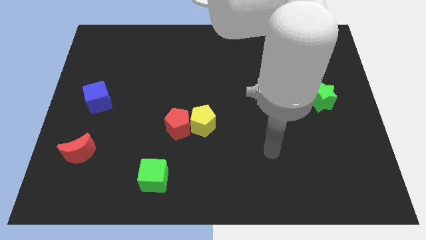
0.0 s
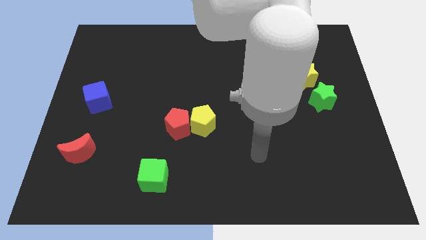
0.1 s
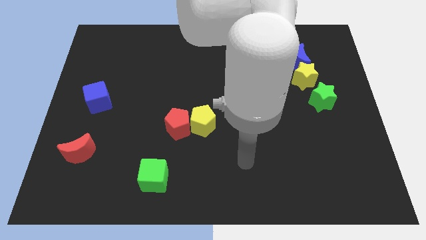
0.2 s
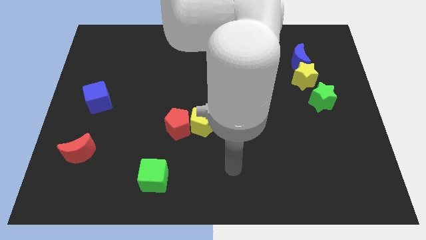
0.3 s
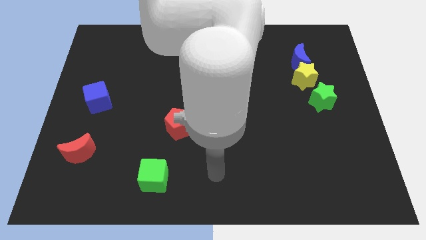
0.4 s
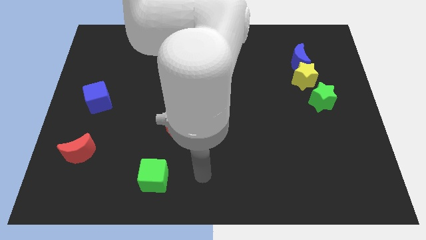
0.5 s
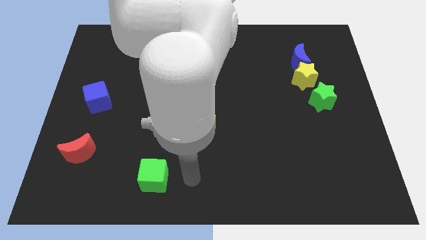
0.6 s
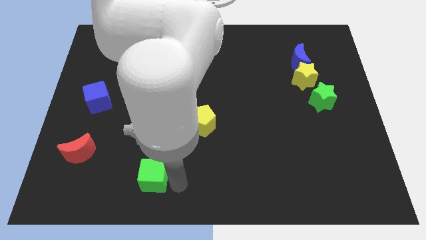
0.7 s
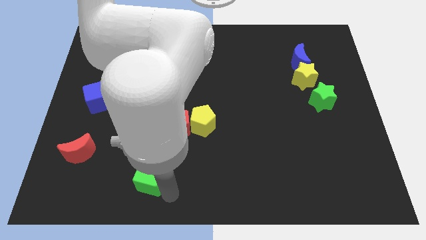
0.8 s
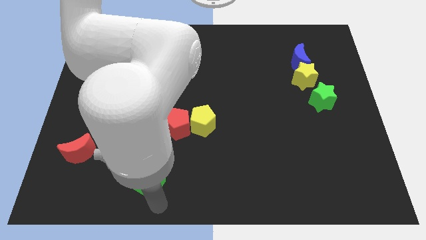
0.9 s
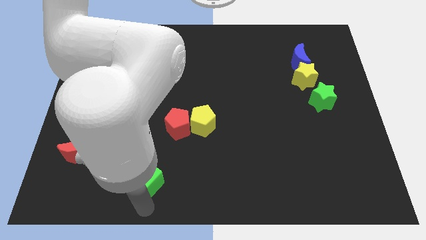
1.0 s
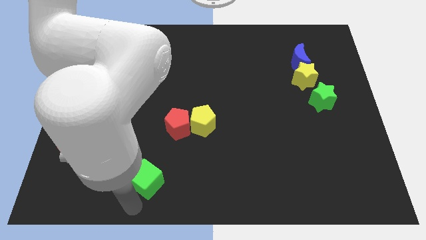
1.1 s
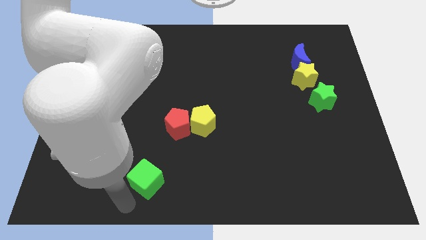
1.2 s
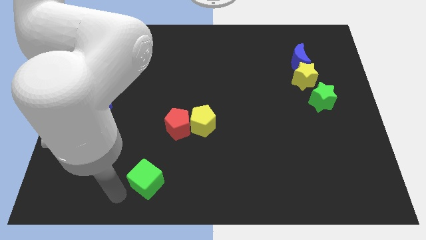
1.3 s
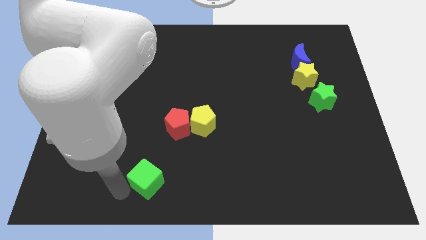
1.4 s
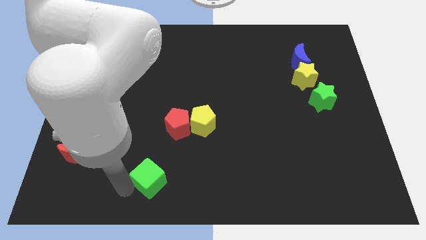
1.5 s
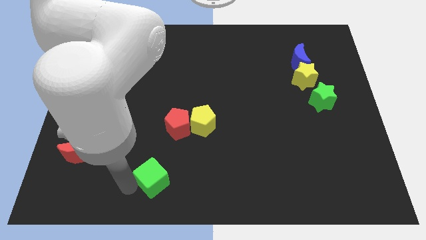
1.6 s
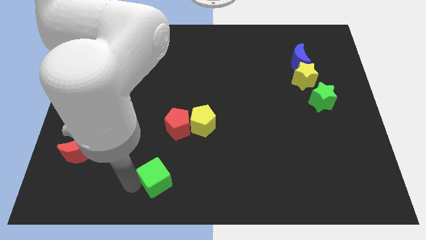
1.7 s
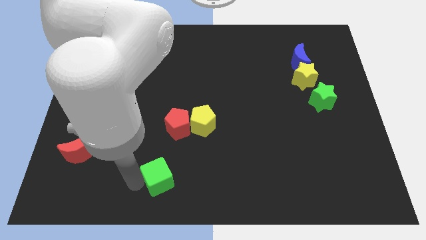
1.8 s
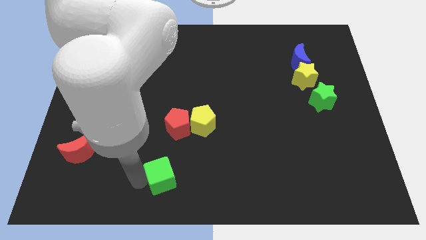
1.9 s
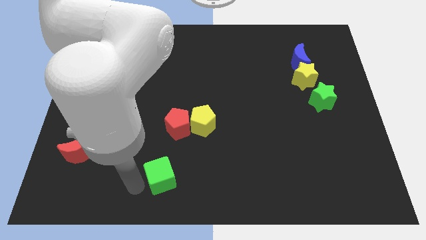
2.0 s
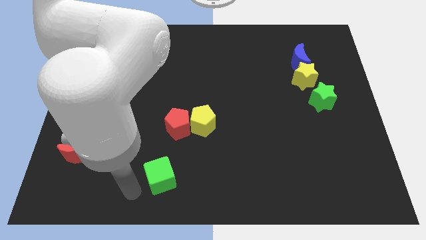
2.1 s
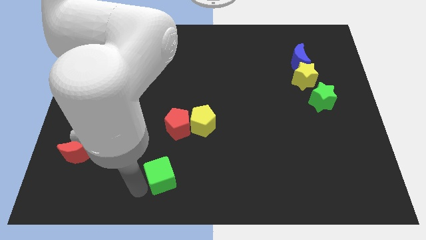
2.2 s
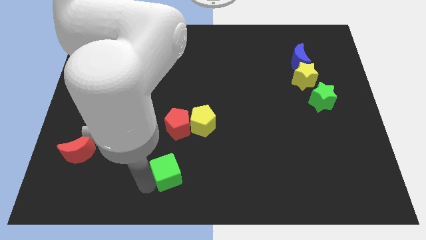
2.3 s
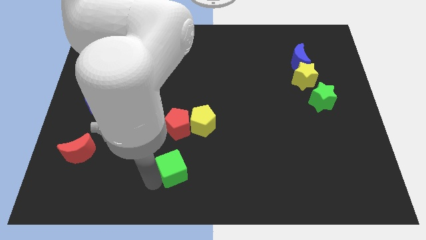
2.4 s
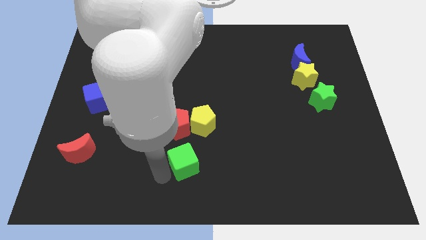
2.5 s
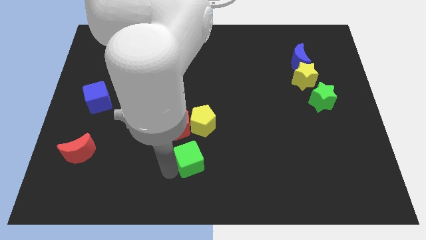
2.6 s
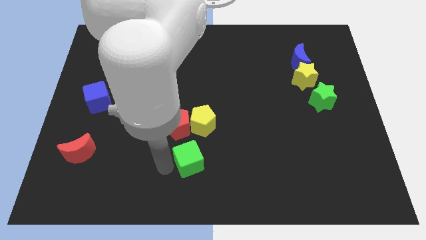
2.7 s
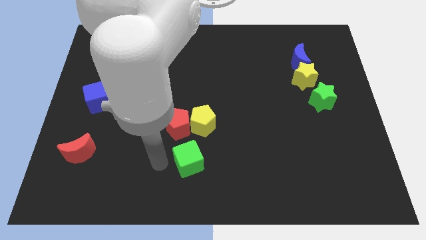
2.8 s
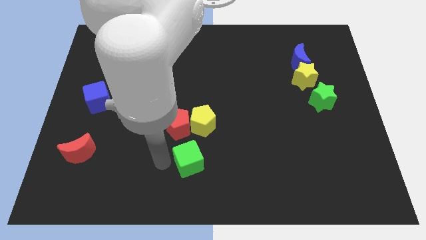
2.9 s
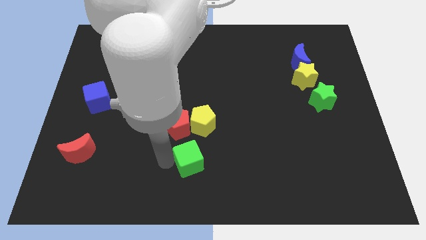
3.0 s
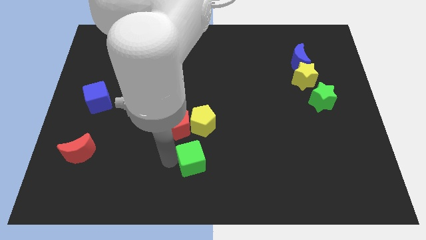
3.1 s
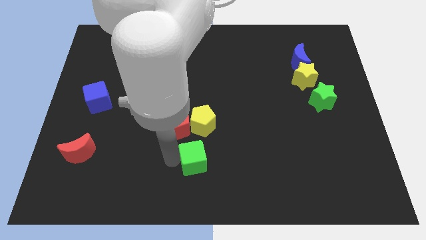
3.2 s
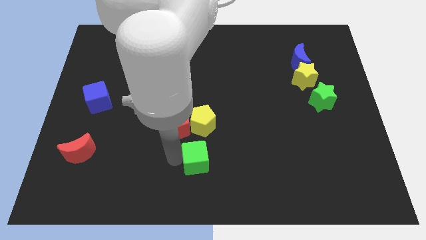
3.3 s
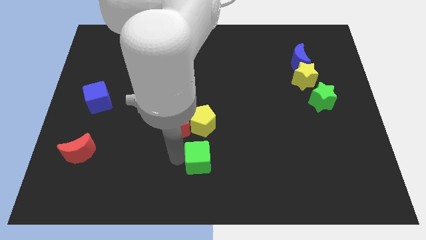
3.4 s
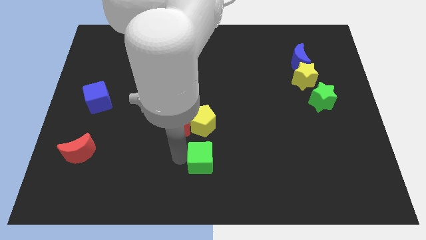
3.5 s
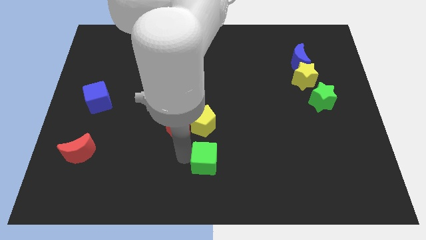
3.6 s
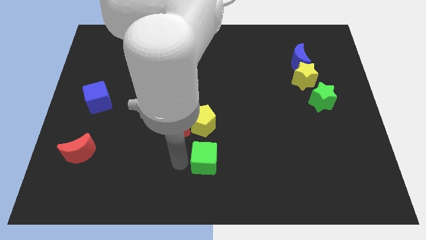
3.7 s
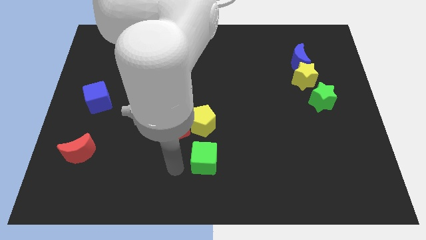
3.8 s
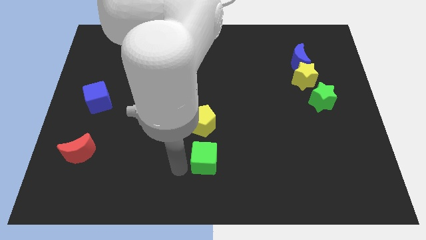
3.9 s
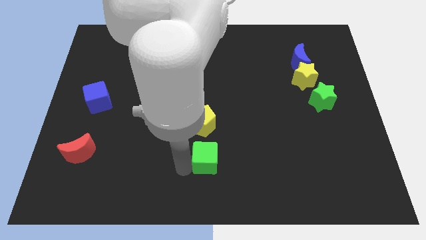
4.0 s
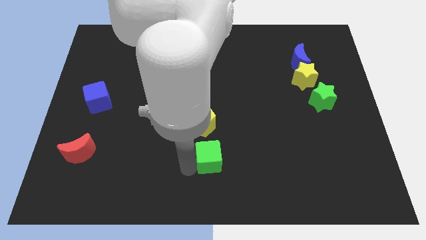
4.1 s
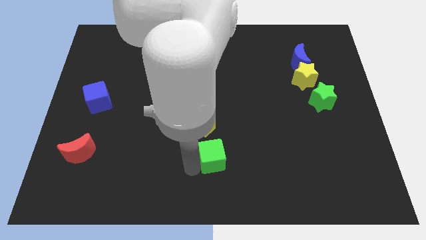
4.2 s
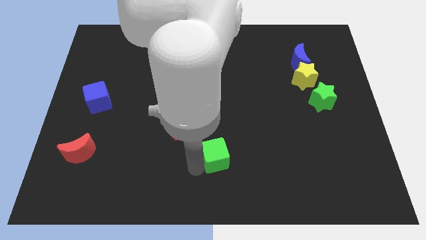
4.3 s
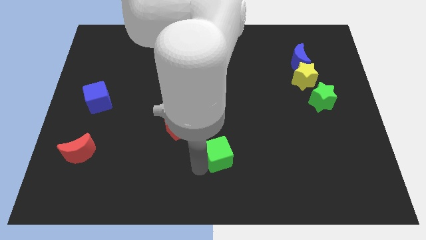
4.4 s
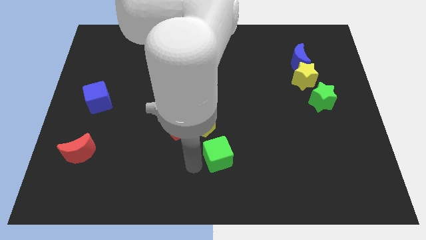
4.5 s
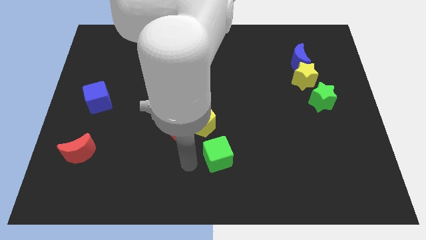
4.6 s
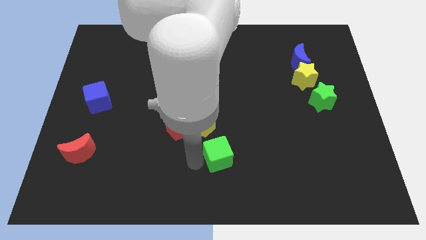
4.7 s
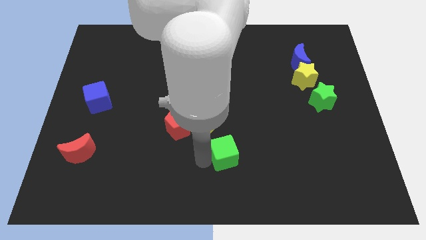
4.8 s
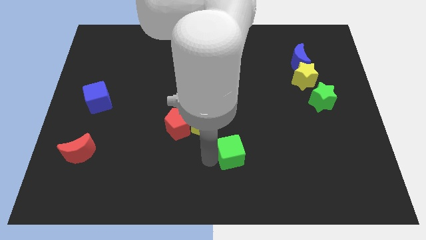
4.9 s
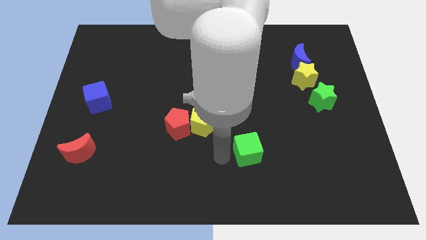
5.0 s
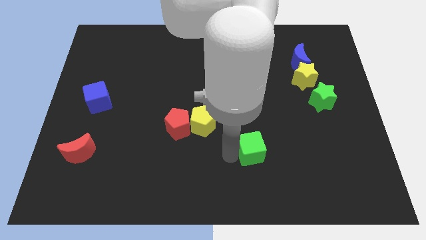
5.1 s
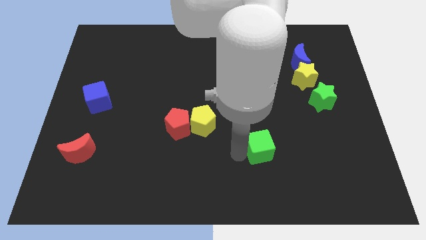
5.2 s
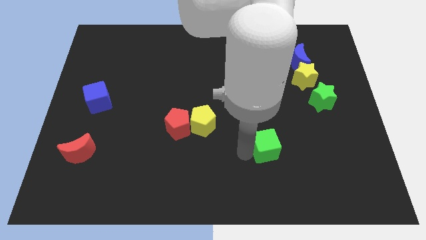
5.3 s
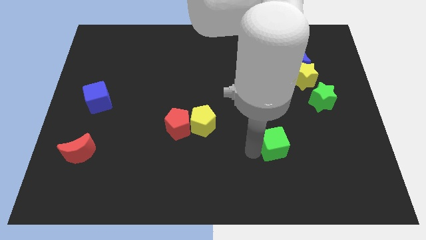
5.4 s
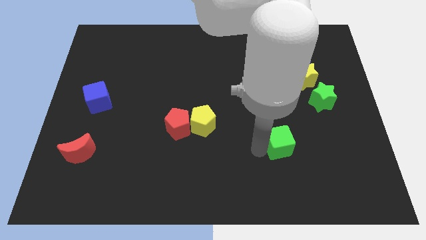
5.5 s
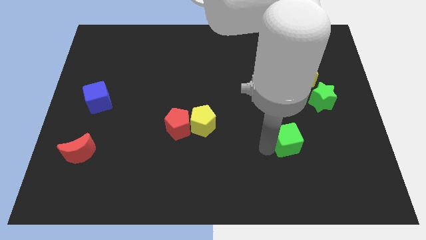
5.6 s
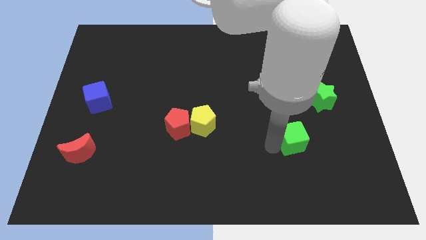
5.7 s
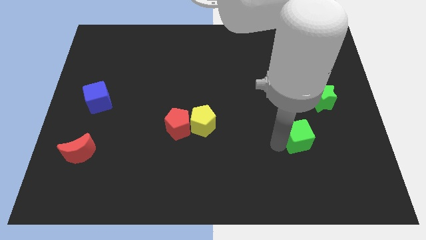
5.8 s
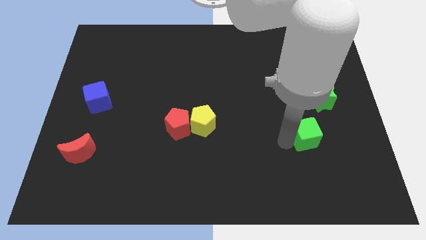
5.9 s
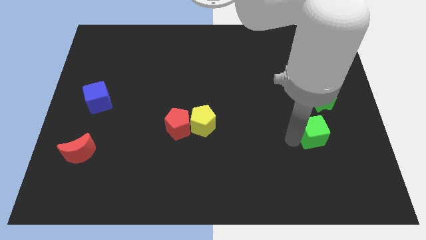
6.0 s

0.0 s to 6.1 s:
move the green cube below the green star

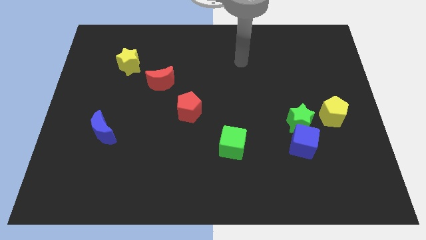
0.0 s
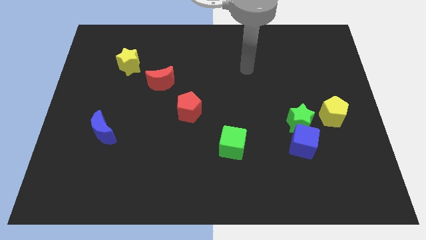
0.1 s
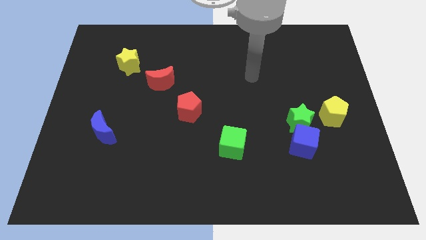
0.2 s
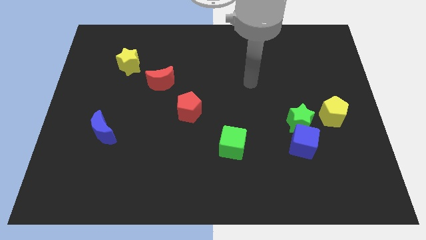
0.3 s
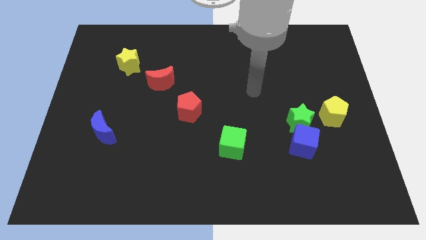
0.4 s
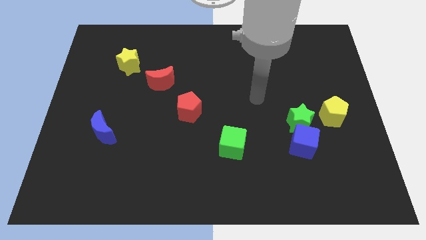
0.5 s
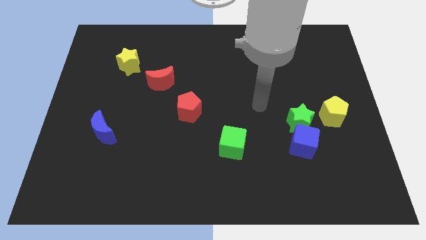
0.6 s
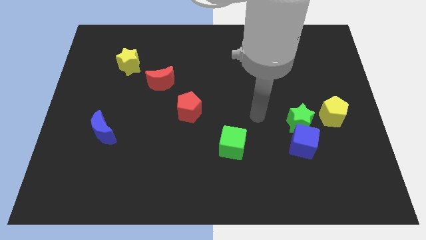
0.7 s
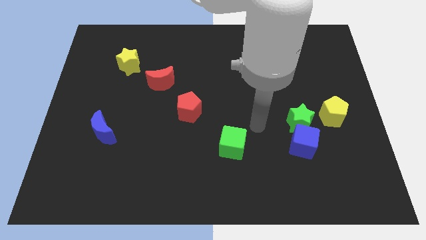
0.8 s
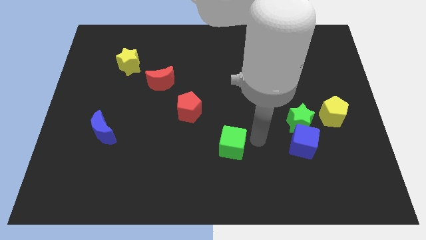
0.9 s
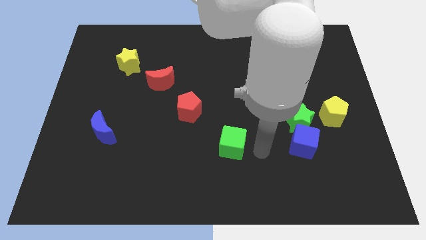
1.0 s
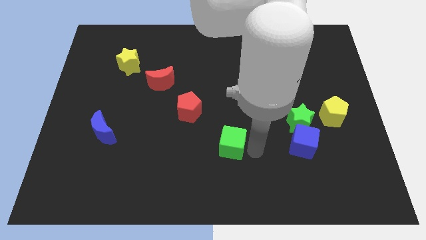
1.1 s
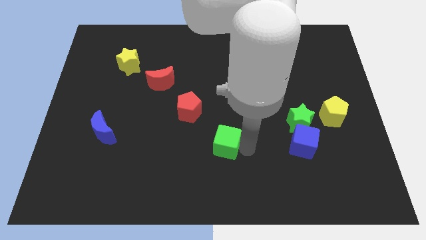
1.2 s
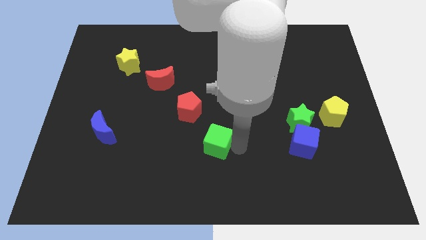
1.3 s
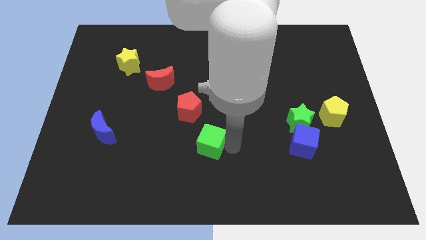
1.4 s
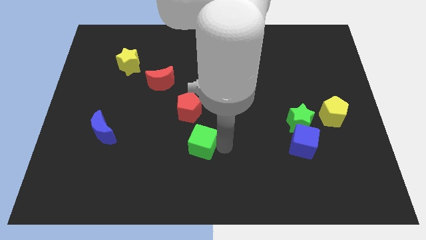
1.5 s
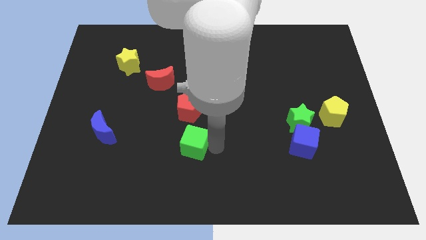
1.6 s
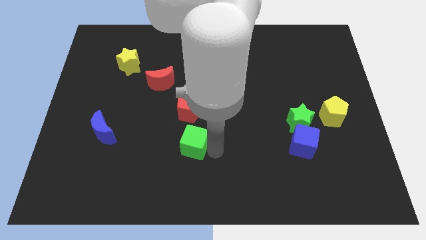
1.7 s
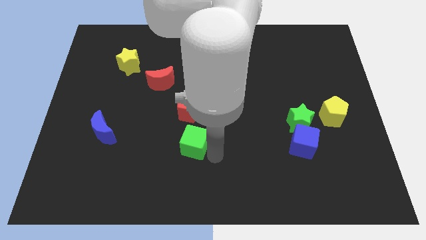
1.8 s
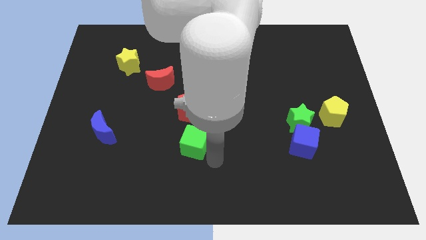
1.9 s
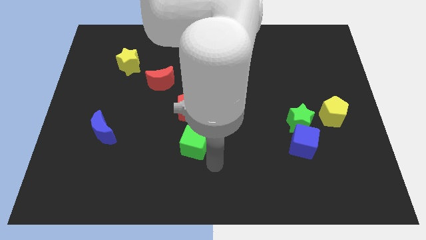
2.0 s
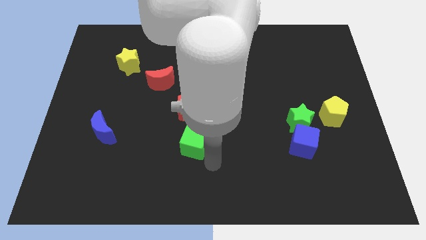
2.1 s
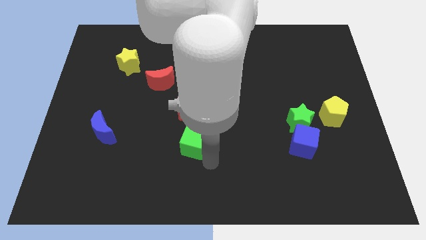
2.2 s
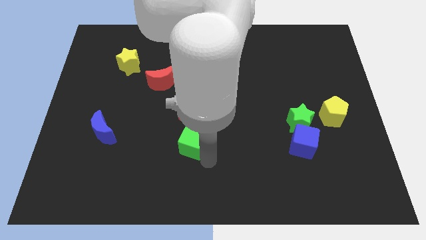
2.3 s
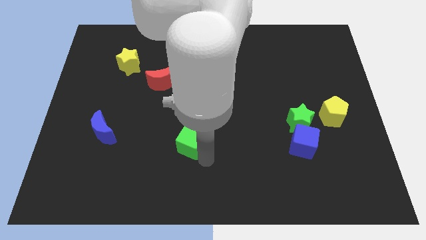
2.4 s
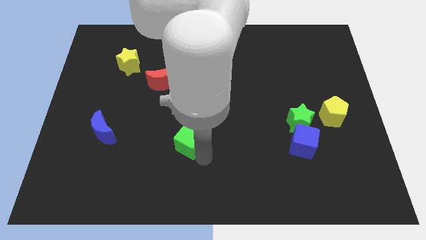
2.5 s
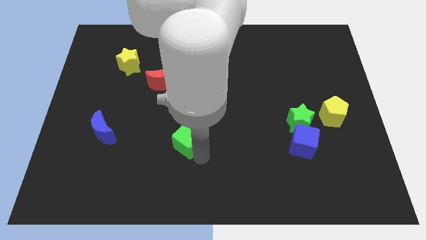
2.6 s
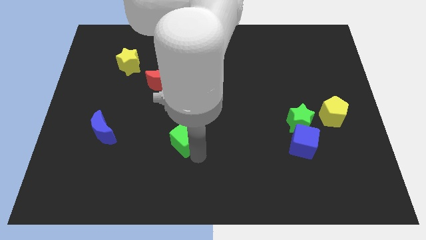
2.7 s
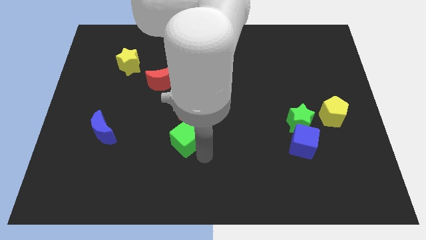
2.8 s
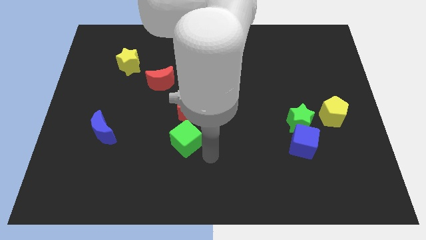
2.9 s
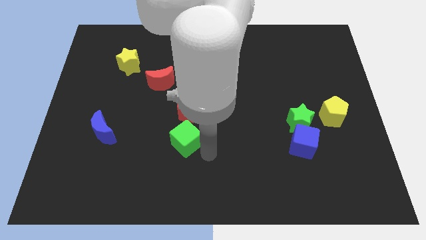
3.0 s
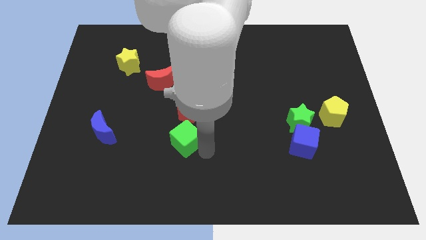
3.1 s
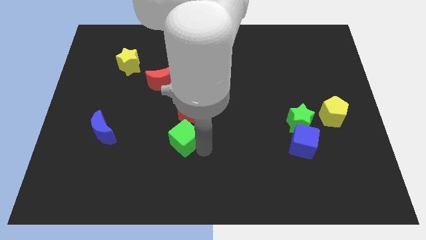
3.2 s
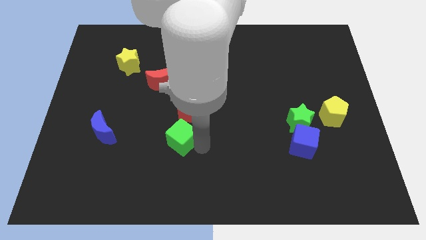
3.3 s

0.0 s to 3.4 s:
push the green cube diagonally down and to the left of the red pentagon
